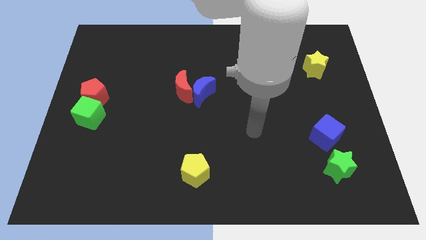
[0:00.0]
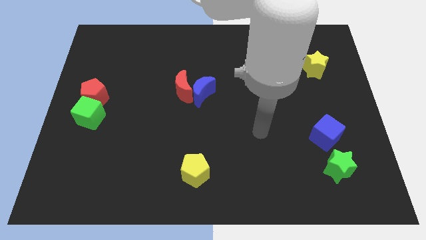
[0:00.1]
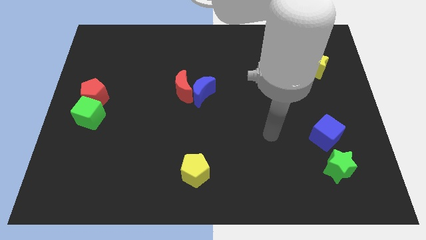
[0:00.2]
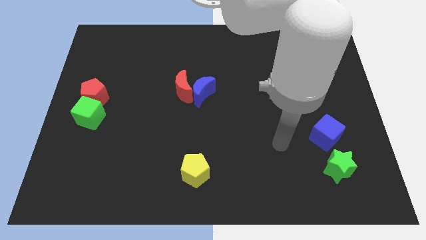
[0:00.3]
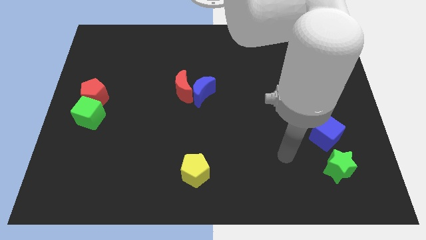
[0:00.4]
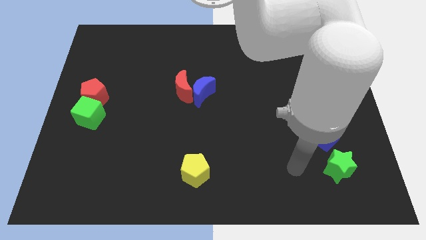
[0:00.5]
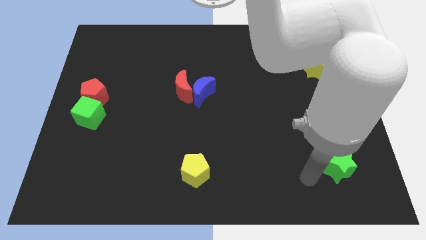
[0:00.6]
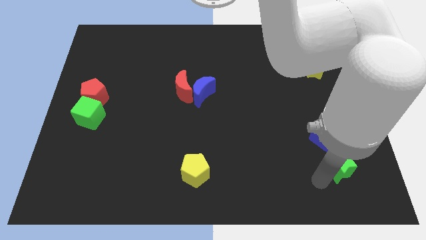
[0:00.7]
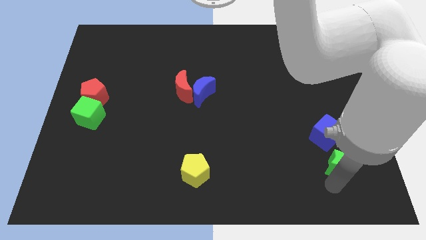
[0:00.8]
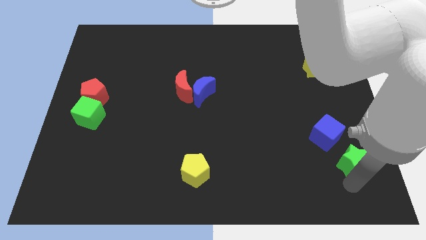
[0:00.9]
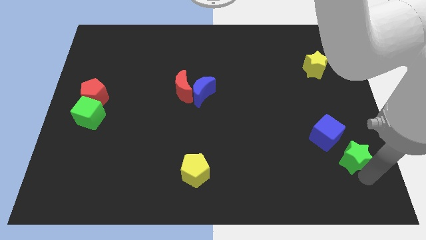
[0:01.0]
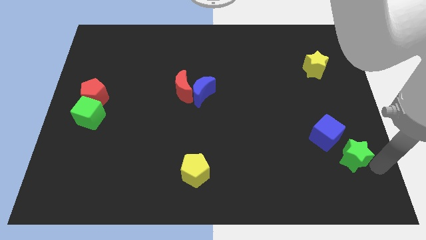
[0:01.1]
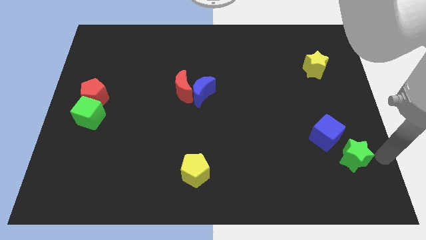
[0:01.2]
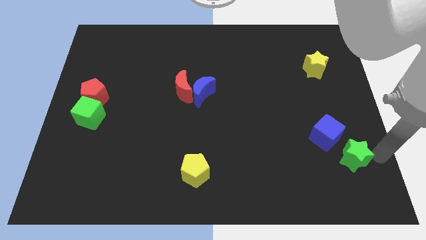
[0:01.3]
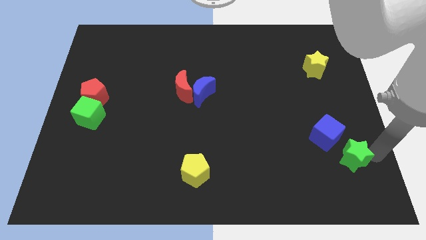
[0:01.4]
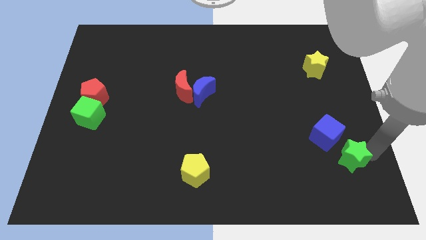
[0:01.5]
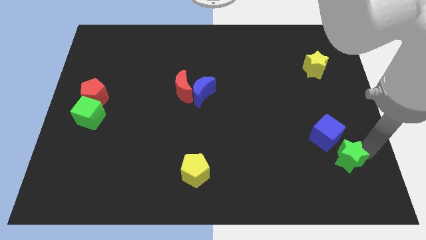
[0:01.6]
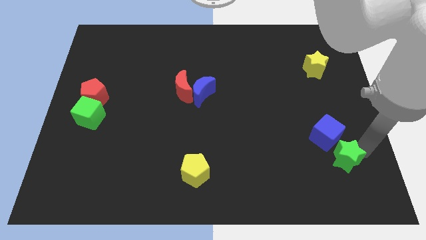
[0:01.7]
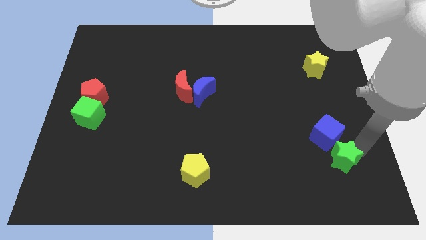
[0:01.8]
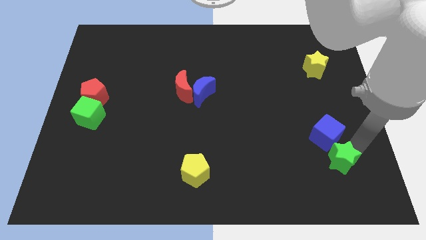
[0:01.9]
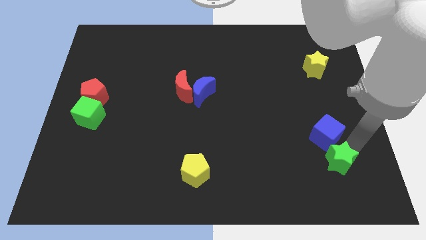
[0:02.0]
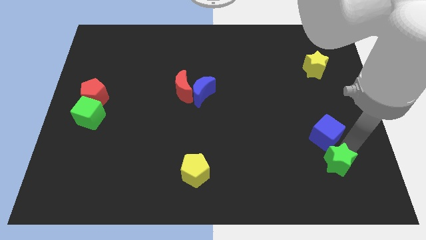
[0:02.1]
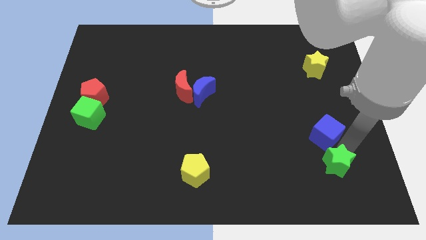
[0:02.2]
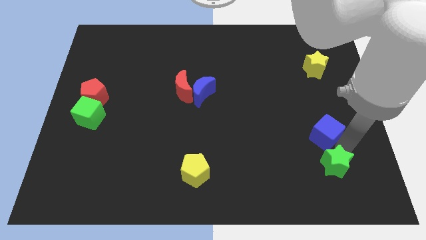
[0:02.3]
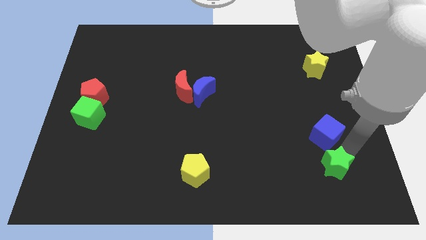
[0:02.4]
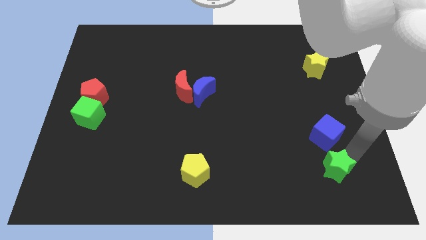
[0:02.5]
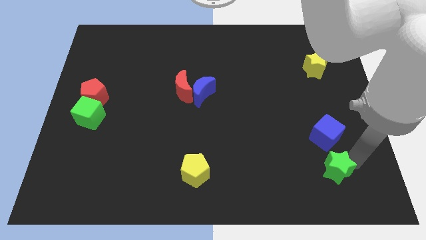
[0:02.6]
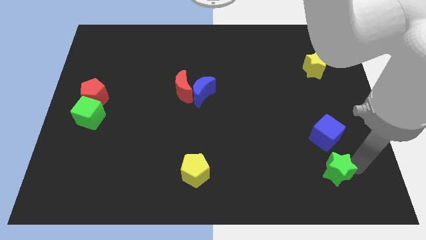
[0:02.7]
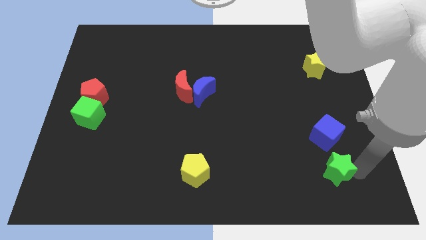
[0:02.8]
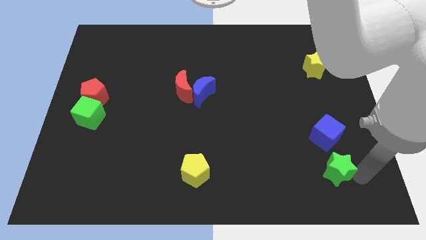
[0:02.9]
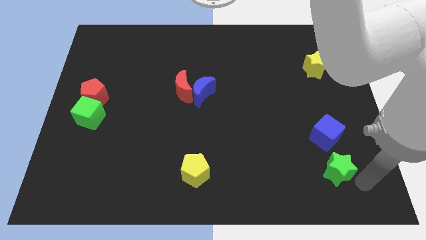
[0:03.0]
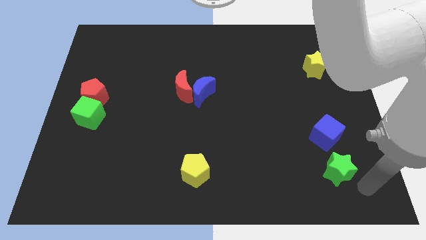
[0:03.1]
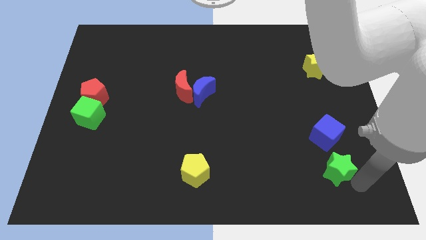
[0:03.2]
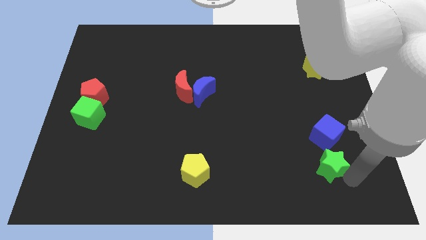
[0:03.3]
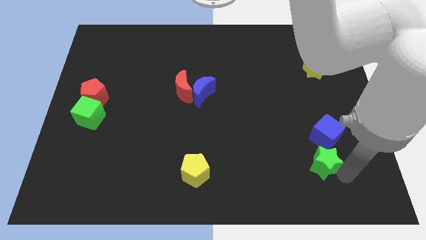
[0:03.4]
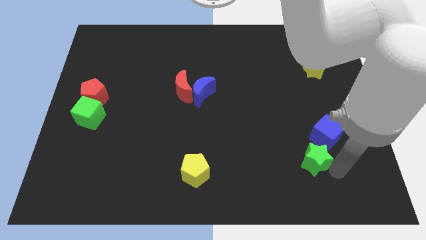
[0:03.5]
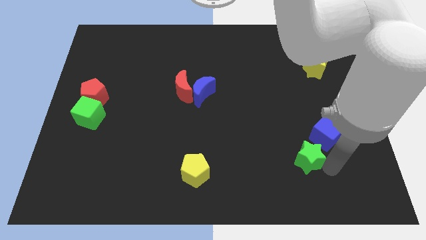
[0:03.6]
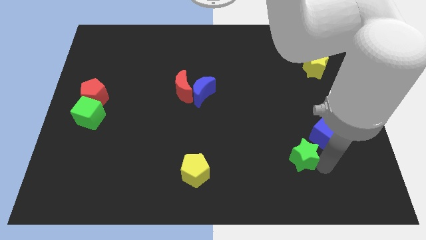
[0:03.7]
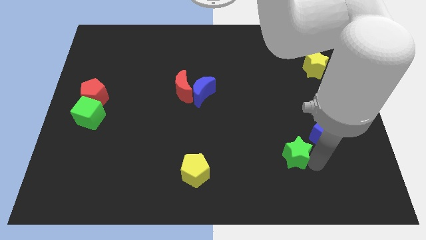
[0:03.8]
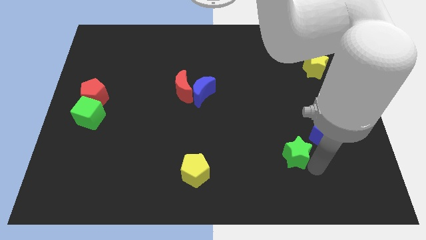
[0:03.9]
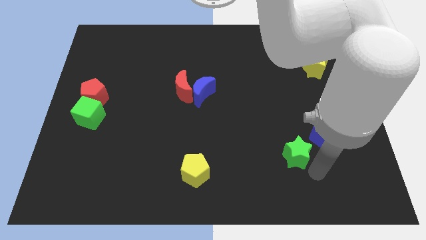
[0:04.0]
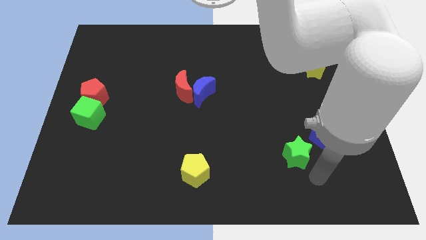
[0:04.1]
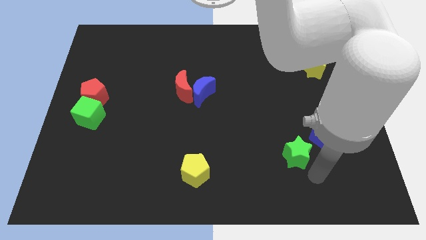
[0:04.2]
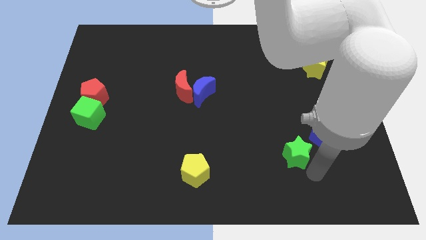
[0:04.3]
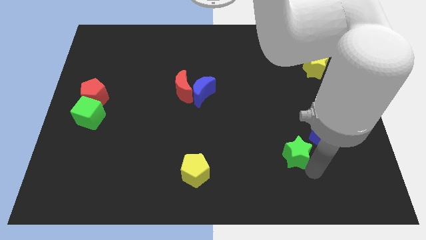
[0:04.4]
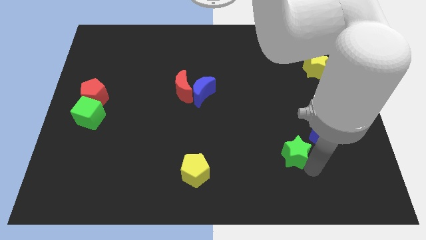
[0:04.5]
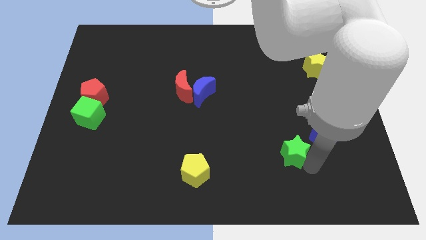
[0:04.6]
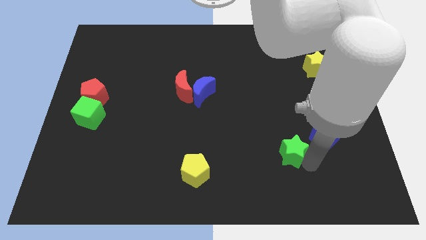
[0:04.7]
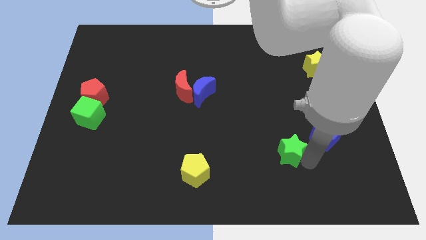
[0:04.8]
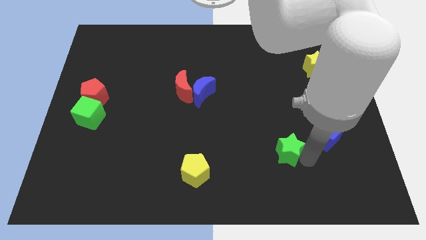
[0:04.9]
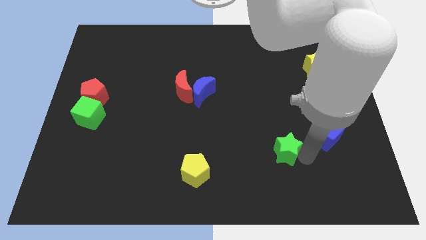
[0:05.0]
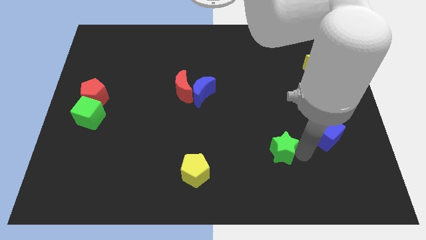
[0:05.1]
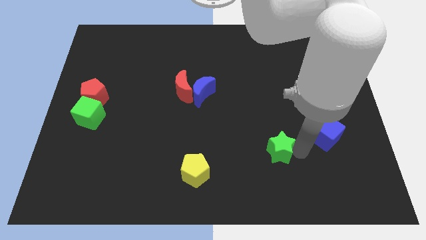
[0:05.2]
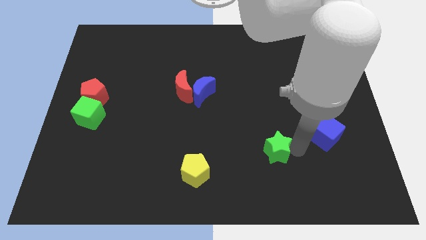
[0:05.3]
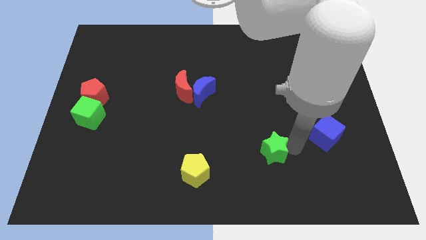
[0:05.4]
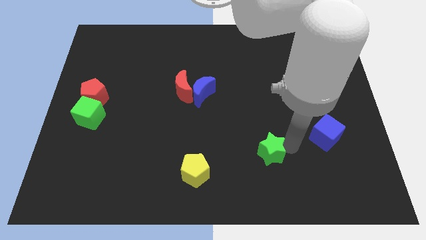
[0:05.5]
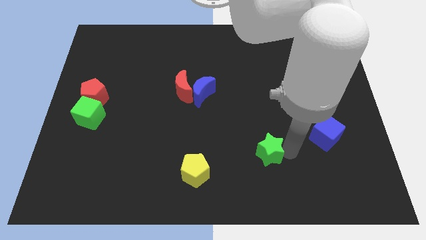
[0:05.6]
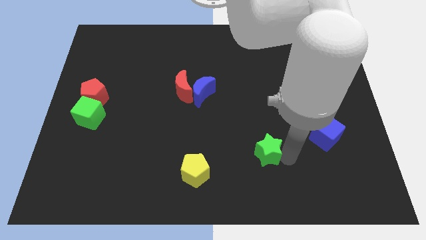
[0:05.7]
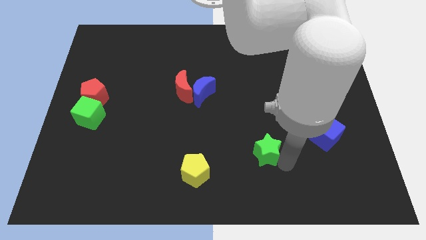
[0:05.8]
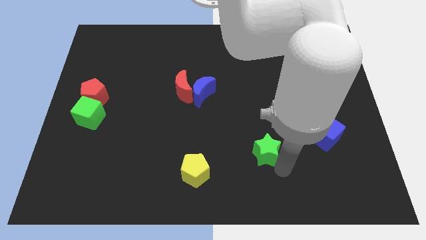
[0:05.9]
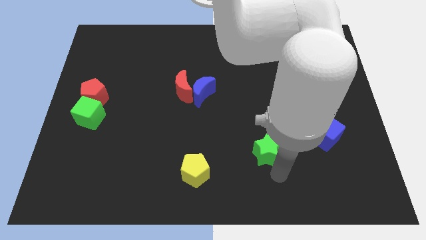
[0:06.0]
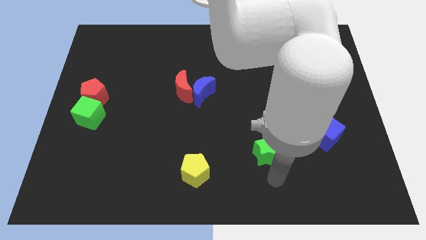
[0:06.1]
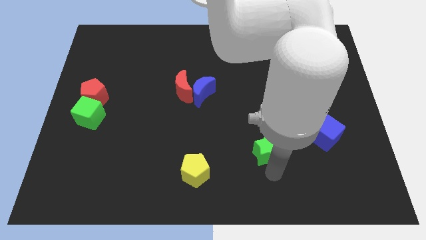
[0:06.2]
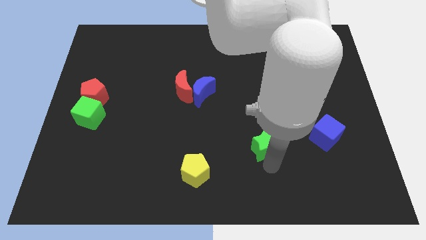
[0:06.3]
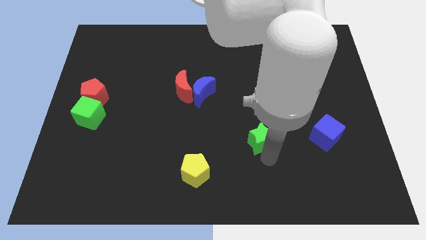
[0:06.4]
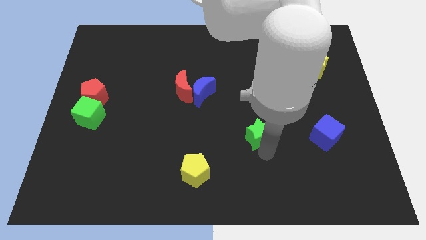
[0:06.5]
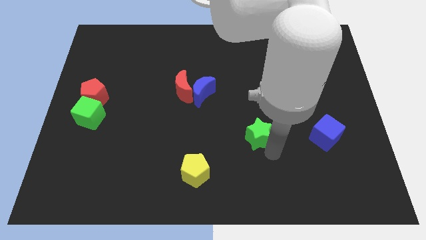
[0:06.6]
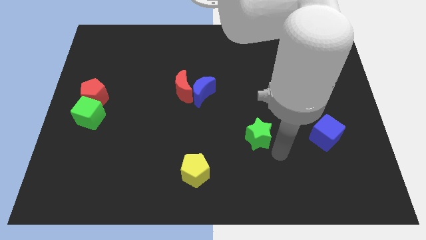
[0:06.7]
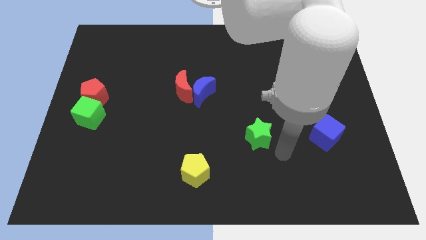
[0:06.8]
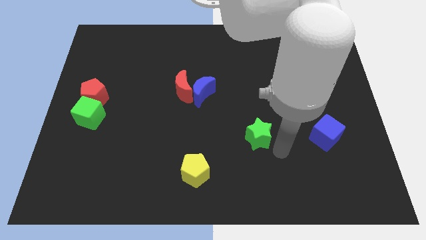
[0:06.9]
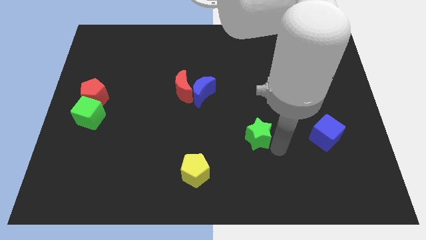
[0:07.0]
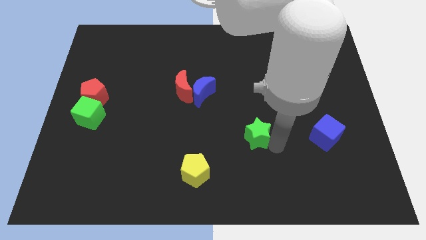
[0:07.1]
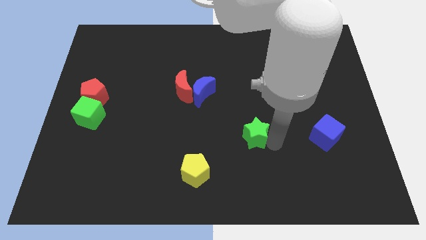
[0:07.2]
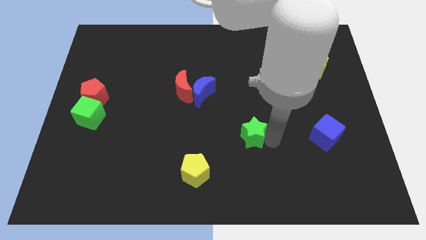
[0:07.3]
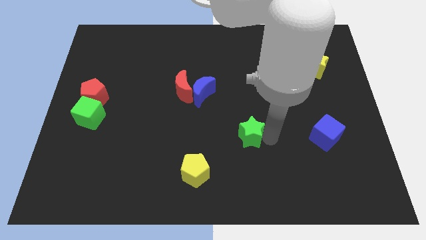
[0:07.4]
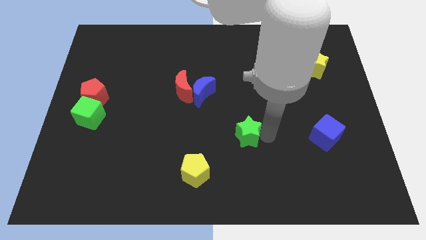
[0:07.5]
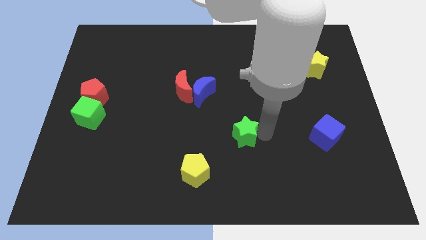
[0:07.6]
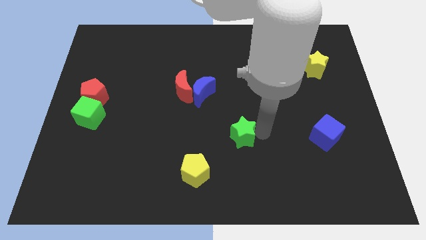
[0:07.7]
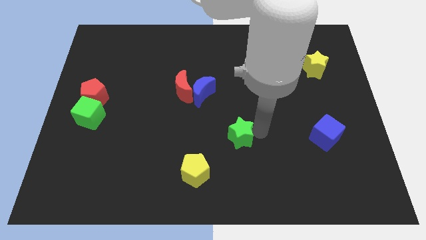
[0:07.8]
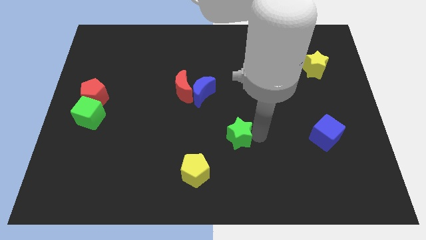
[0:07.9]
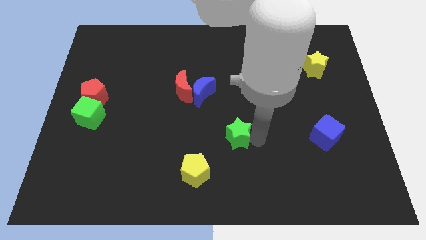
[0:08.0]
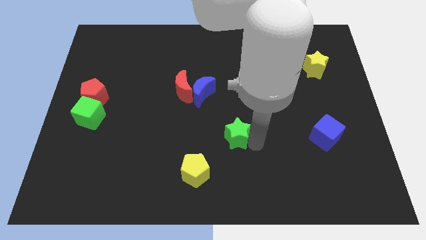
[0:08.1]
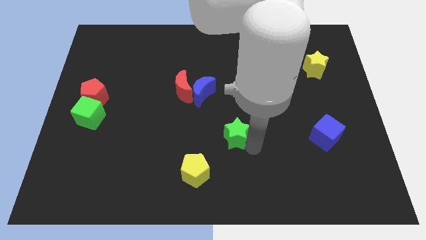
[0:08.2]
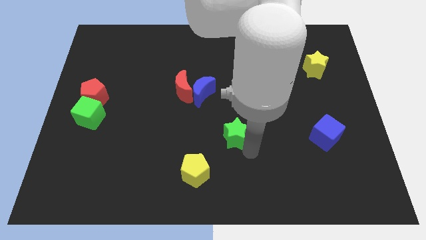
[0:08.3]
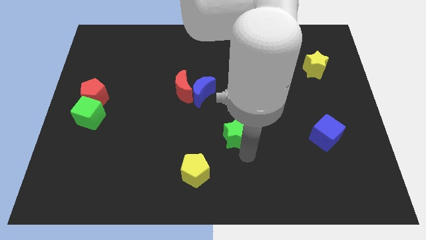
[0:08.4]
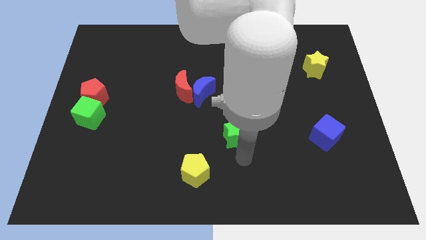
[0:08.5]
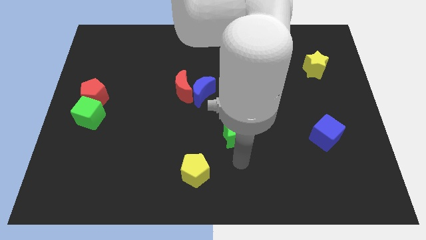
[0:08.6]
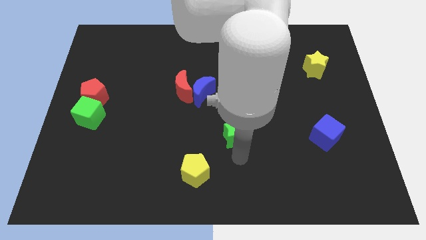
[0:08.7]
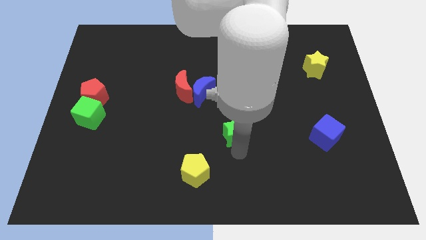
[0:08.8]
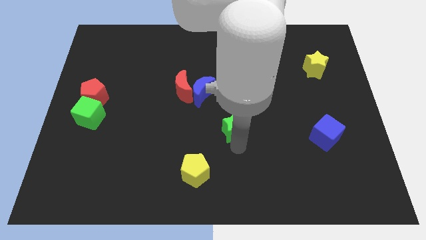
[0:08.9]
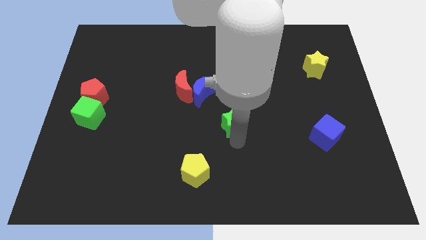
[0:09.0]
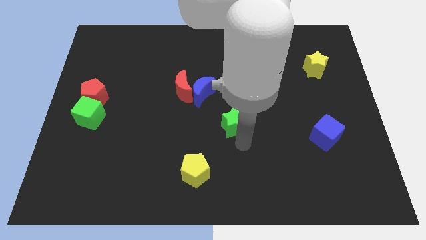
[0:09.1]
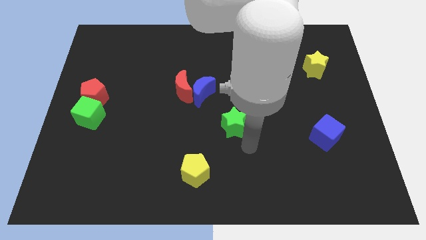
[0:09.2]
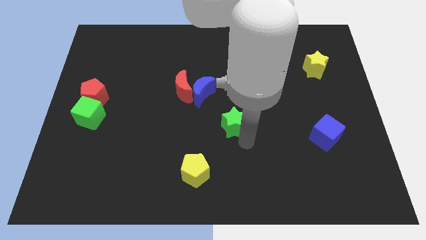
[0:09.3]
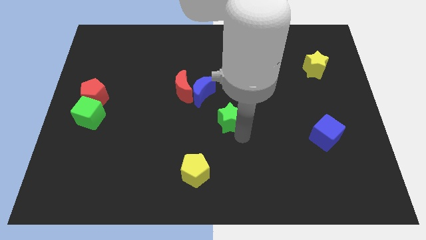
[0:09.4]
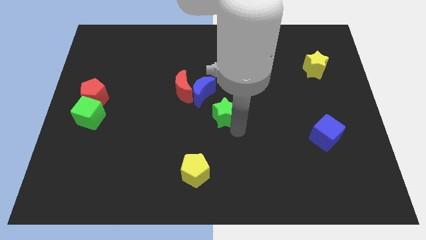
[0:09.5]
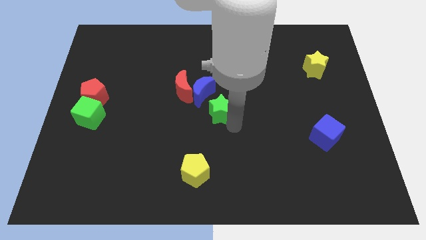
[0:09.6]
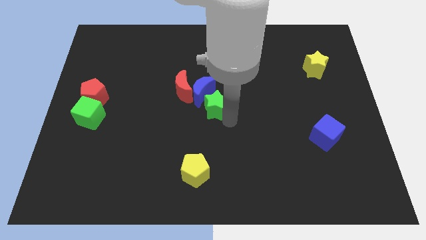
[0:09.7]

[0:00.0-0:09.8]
put the green star towards the blue moon
